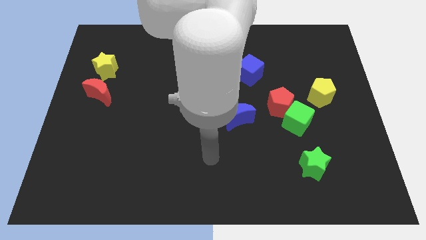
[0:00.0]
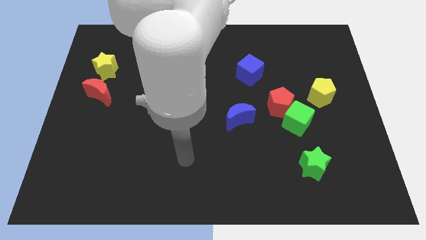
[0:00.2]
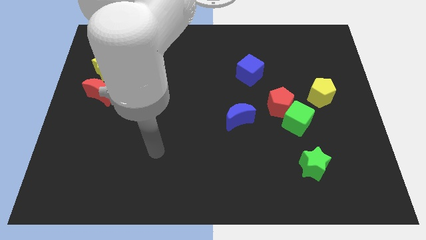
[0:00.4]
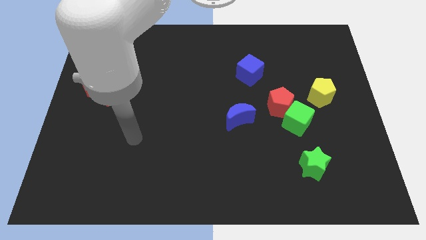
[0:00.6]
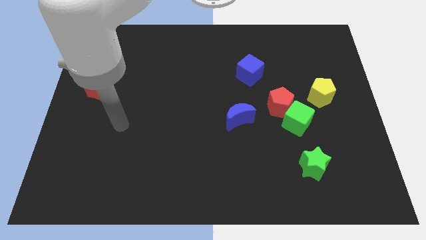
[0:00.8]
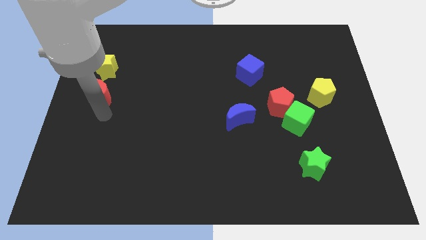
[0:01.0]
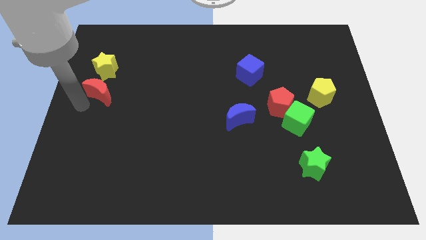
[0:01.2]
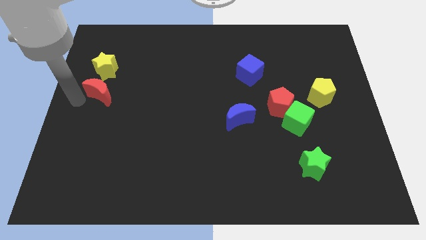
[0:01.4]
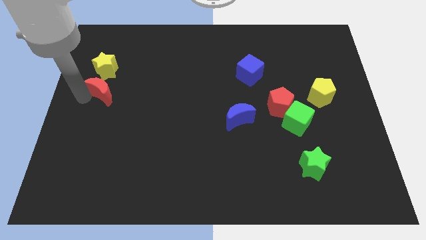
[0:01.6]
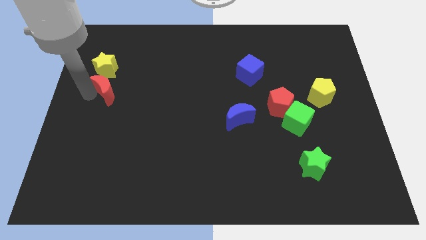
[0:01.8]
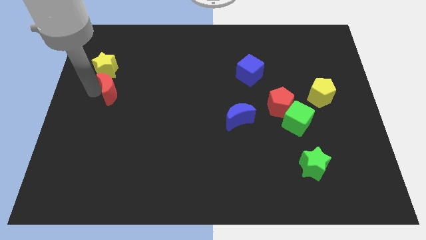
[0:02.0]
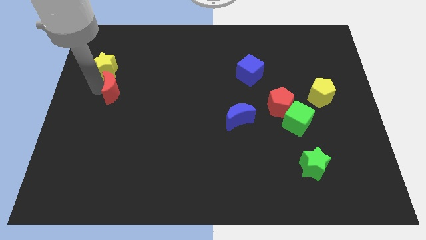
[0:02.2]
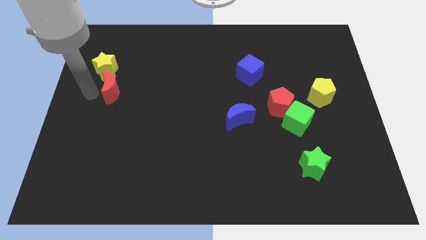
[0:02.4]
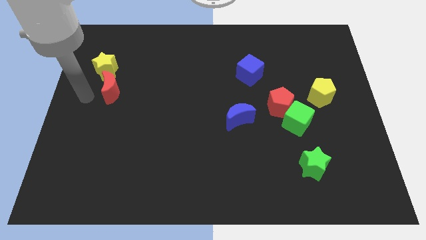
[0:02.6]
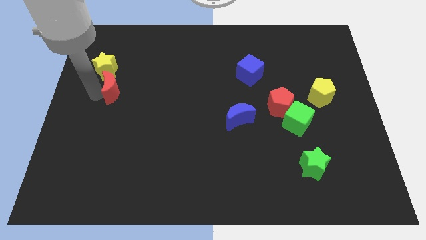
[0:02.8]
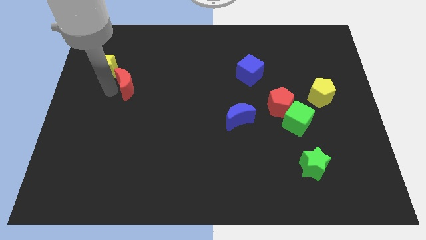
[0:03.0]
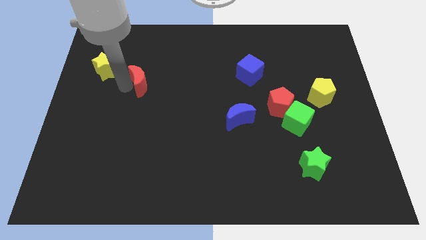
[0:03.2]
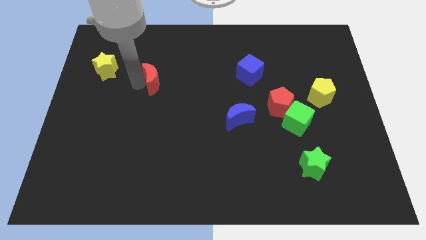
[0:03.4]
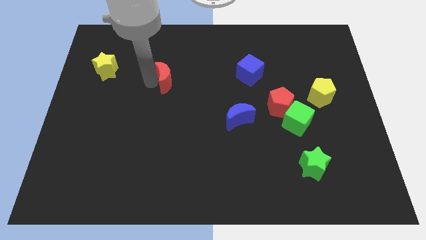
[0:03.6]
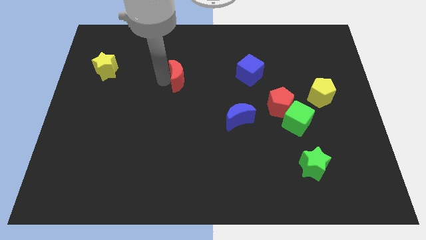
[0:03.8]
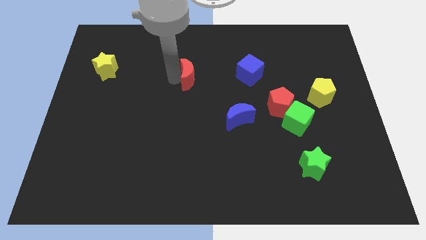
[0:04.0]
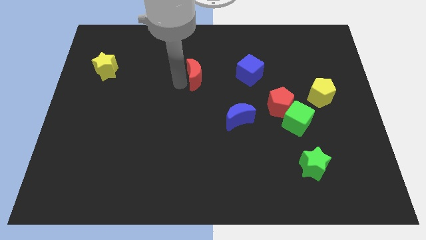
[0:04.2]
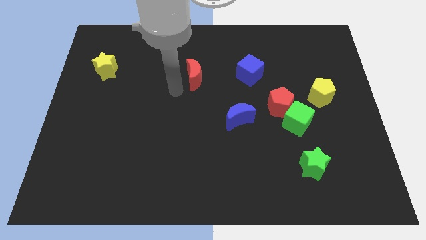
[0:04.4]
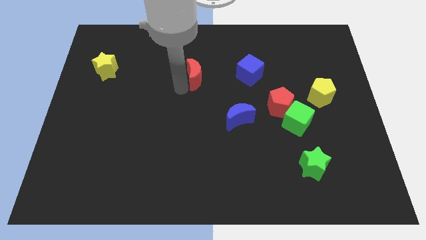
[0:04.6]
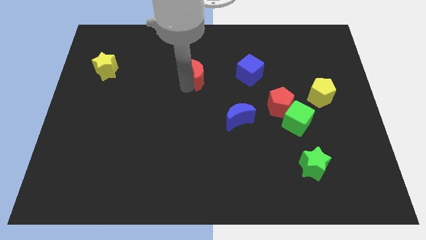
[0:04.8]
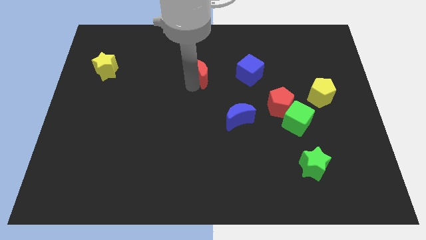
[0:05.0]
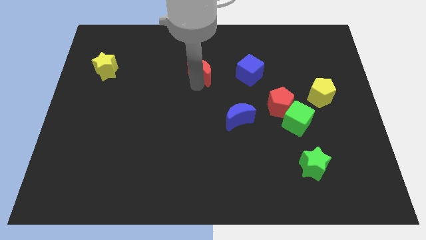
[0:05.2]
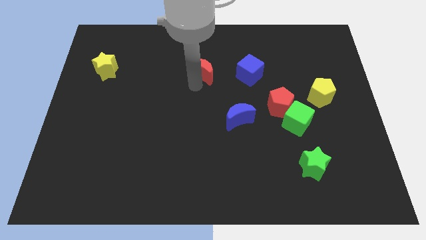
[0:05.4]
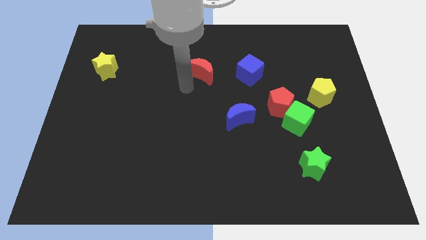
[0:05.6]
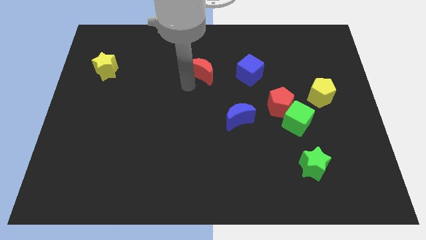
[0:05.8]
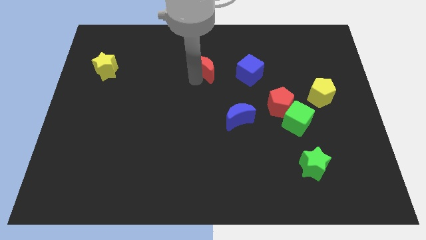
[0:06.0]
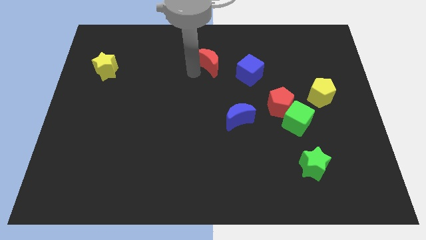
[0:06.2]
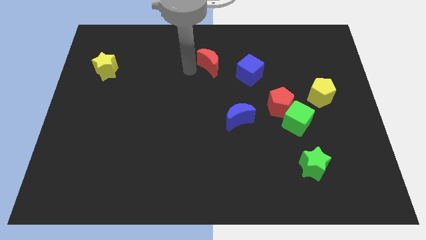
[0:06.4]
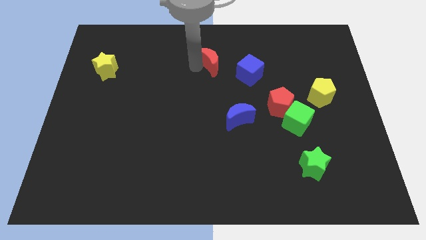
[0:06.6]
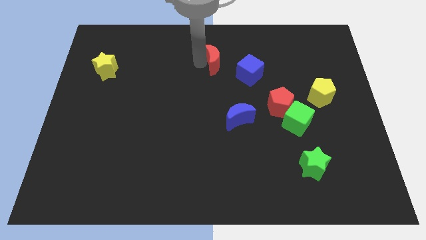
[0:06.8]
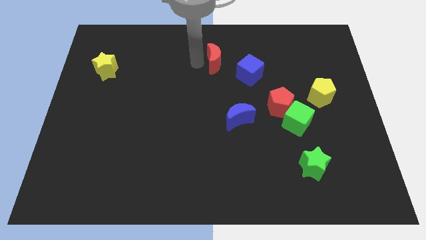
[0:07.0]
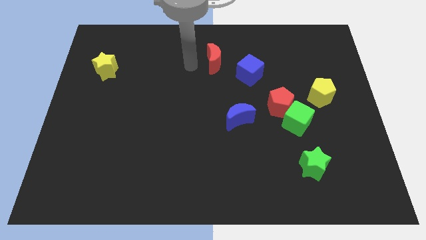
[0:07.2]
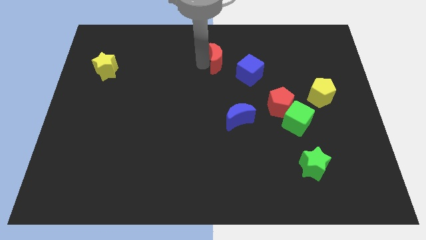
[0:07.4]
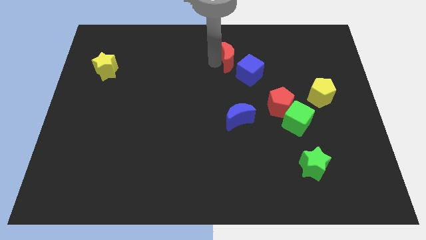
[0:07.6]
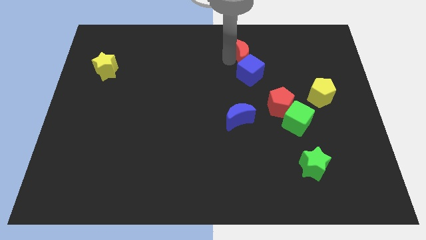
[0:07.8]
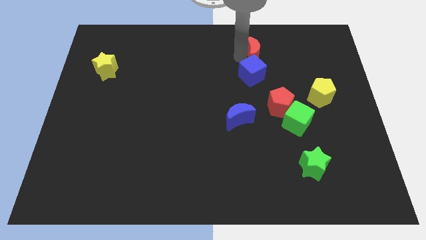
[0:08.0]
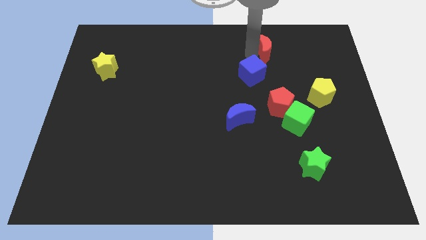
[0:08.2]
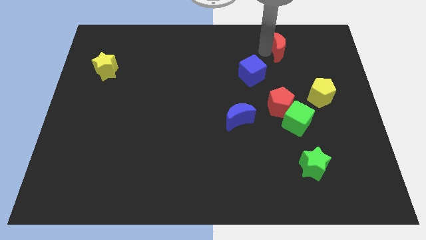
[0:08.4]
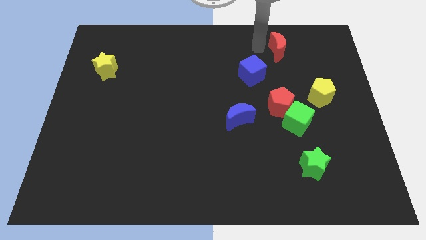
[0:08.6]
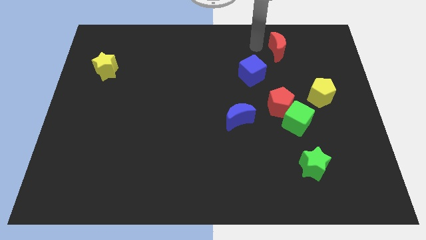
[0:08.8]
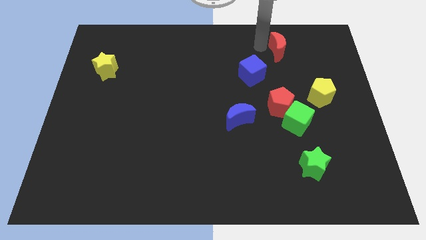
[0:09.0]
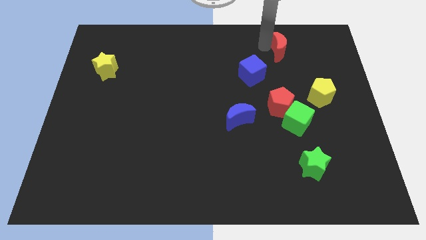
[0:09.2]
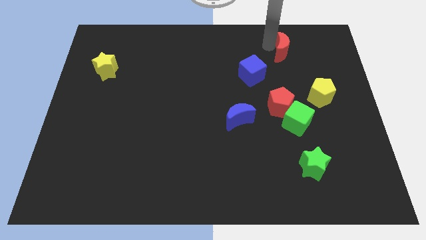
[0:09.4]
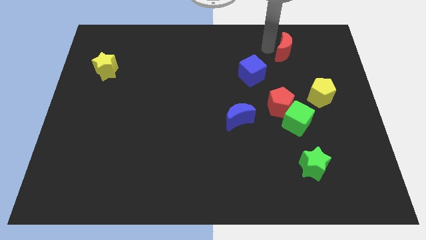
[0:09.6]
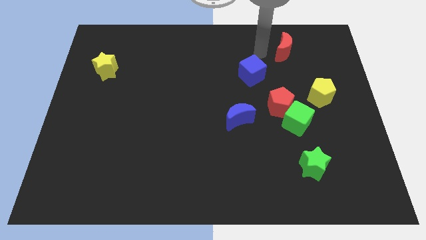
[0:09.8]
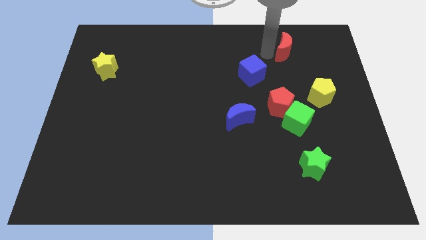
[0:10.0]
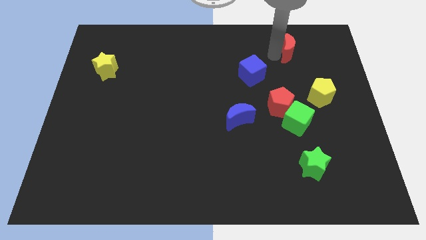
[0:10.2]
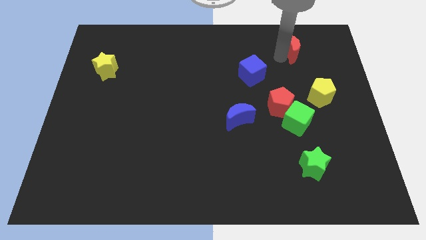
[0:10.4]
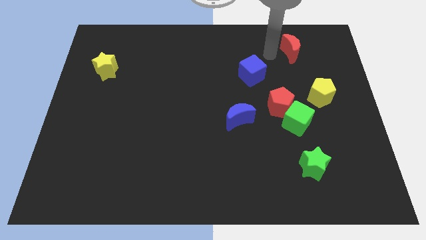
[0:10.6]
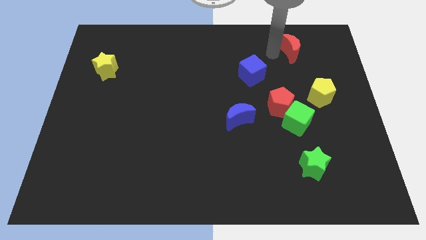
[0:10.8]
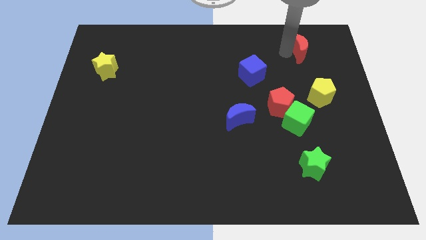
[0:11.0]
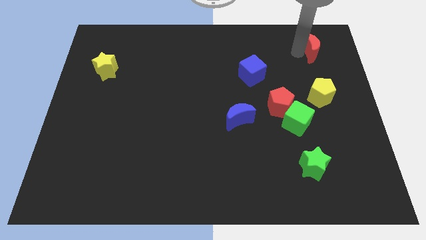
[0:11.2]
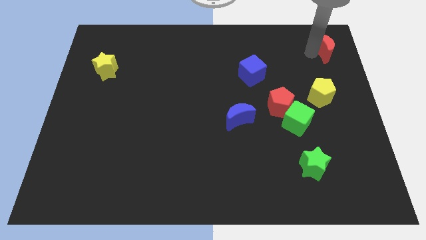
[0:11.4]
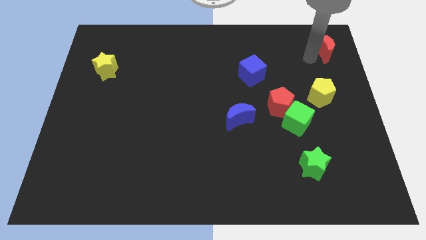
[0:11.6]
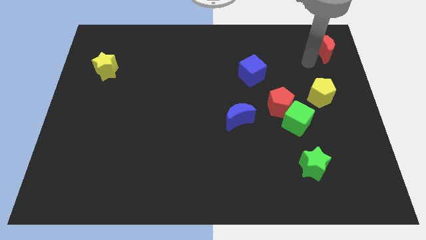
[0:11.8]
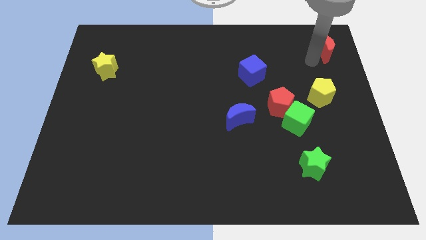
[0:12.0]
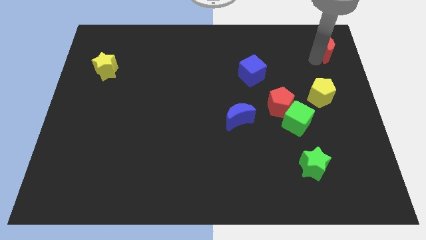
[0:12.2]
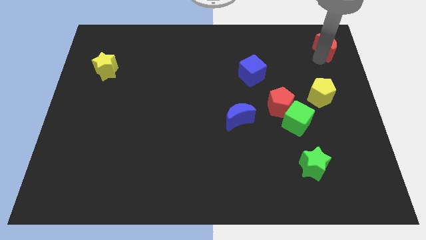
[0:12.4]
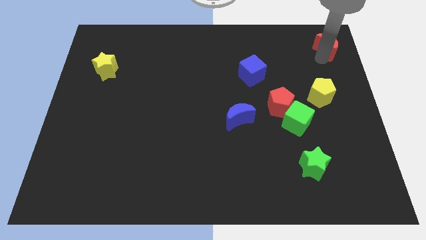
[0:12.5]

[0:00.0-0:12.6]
put the red moon to the upper right corner
